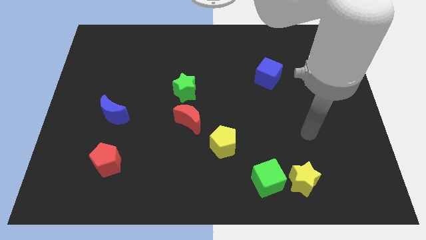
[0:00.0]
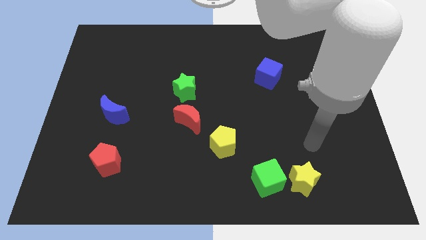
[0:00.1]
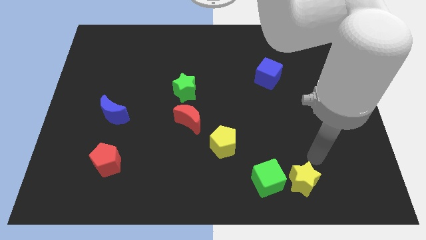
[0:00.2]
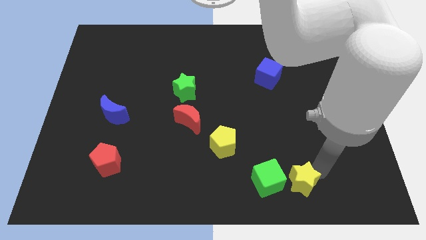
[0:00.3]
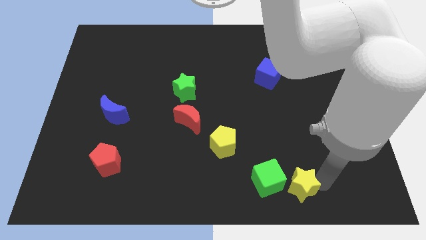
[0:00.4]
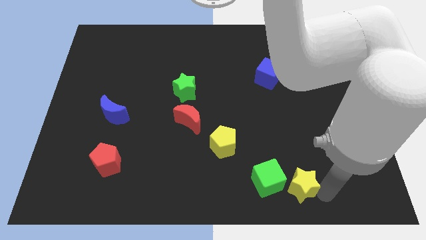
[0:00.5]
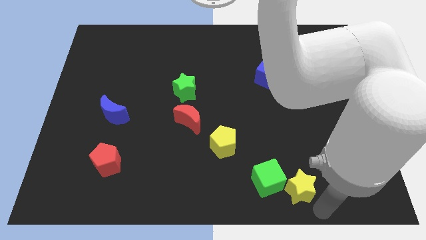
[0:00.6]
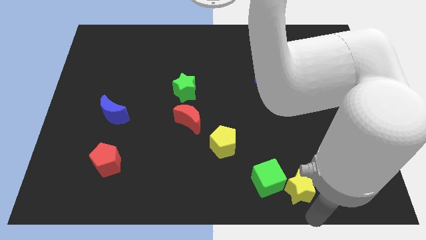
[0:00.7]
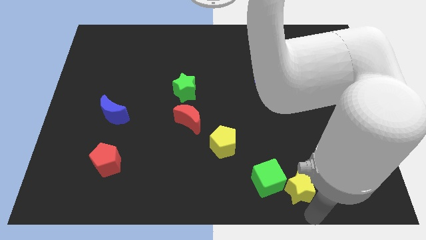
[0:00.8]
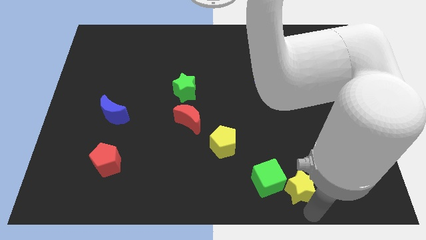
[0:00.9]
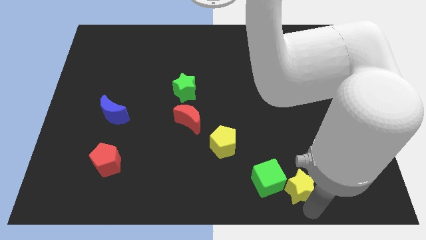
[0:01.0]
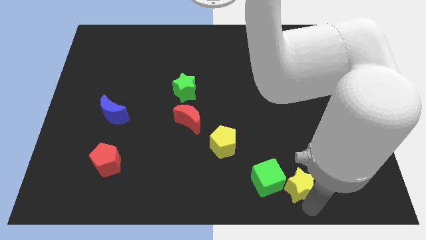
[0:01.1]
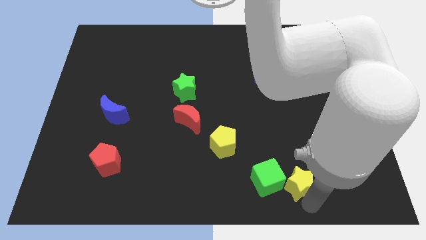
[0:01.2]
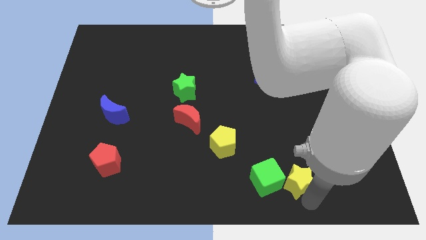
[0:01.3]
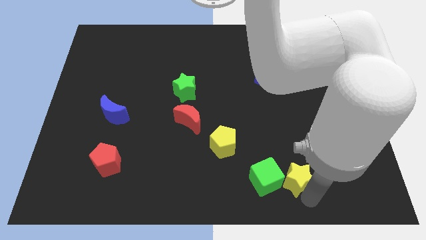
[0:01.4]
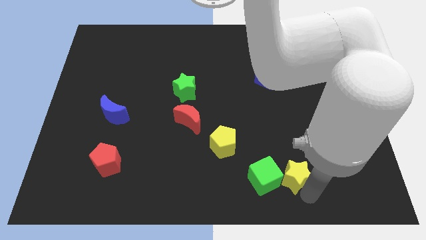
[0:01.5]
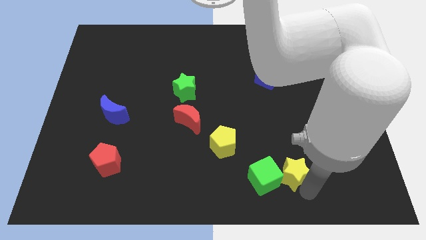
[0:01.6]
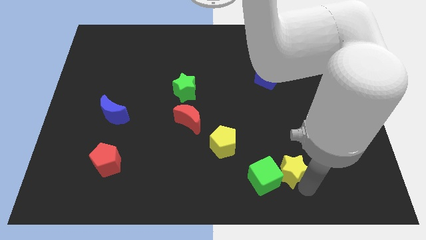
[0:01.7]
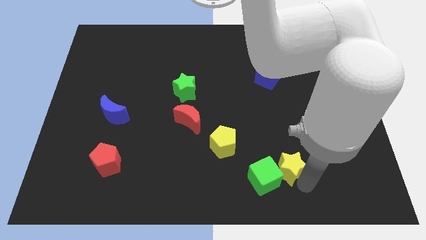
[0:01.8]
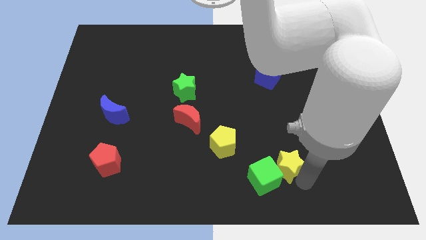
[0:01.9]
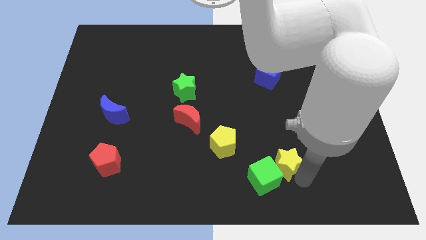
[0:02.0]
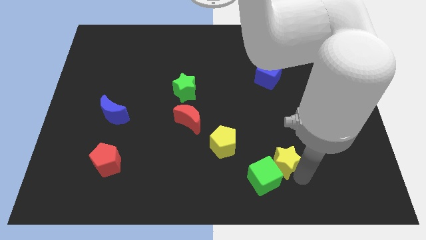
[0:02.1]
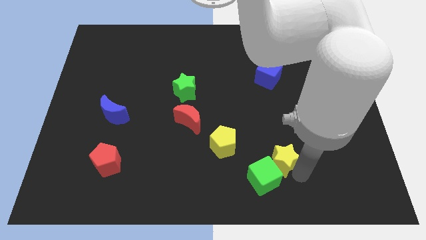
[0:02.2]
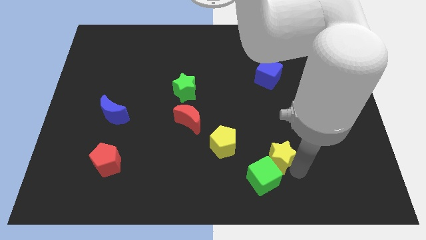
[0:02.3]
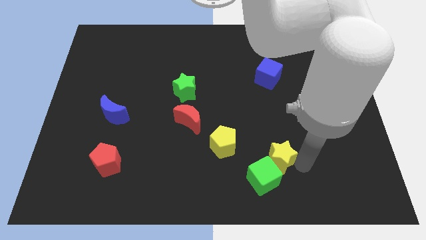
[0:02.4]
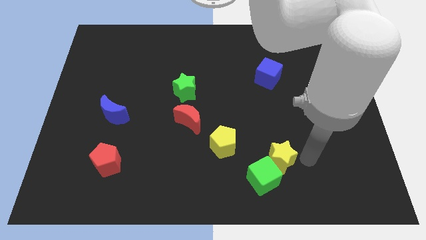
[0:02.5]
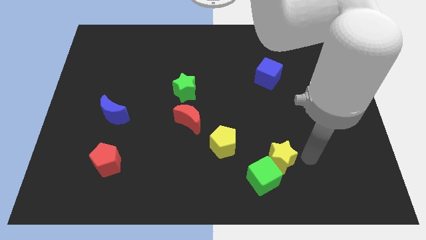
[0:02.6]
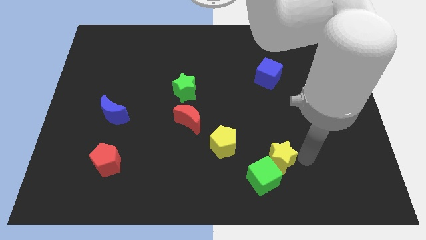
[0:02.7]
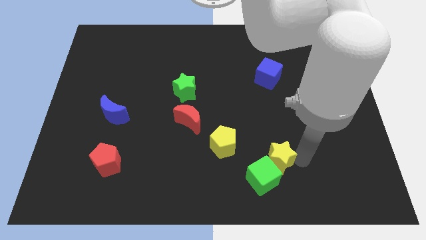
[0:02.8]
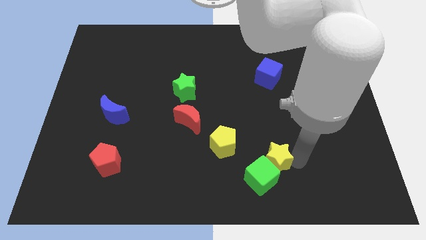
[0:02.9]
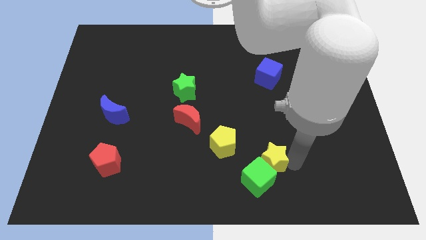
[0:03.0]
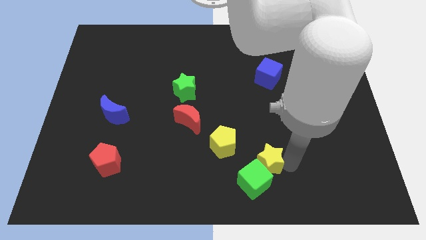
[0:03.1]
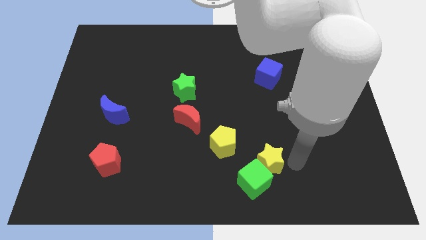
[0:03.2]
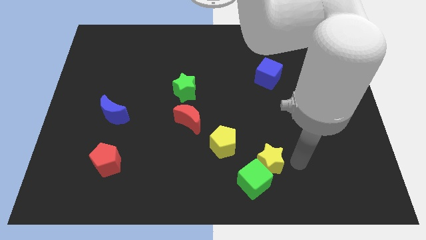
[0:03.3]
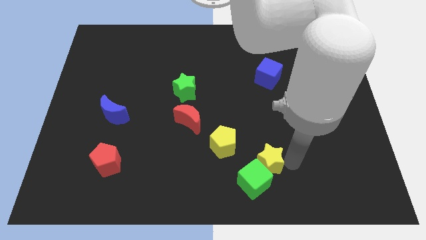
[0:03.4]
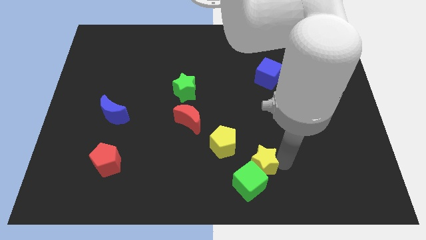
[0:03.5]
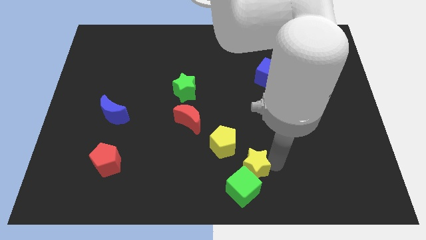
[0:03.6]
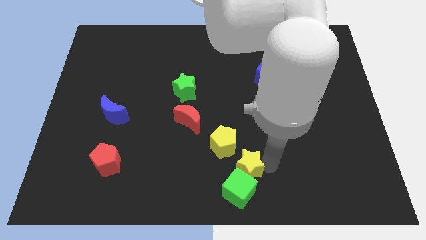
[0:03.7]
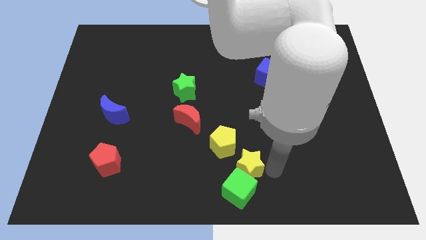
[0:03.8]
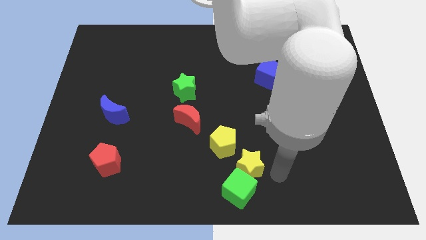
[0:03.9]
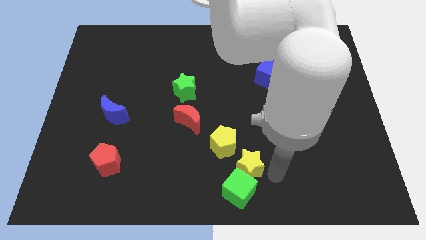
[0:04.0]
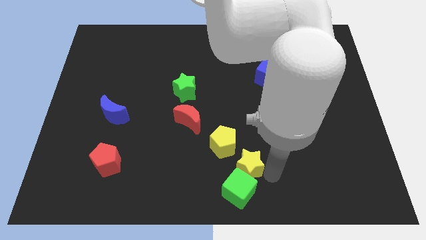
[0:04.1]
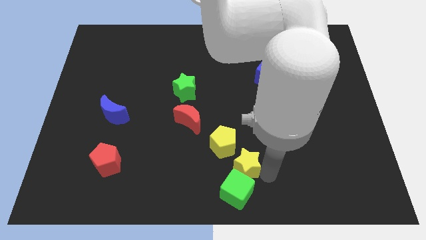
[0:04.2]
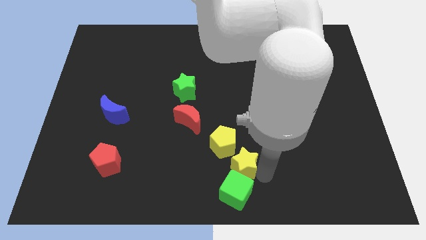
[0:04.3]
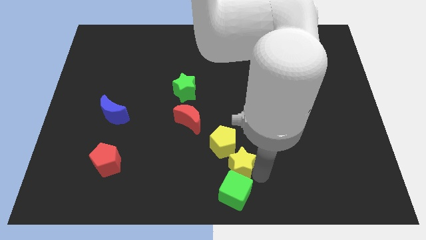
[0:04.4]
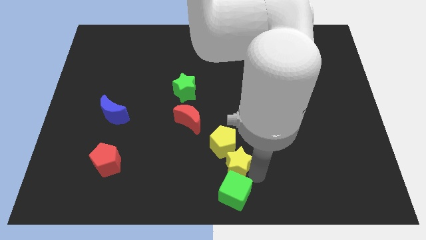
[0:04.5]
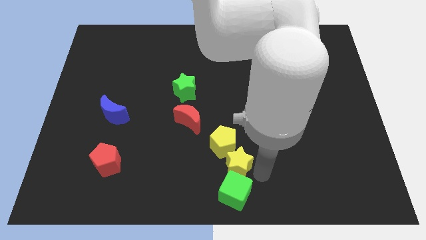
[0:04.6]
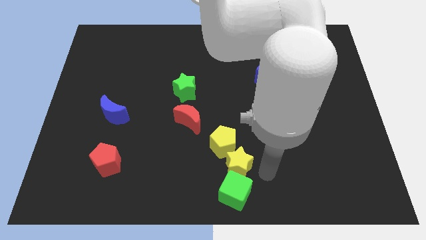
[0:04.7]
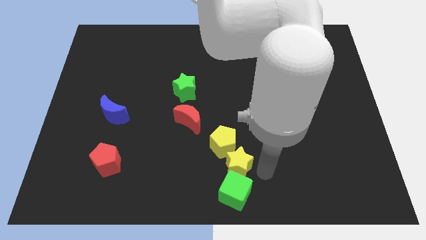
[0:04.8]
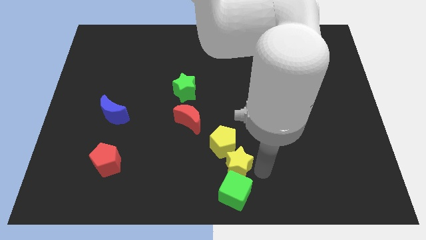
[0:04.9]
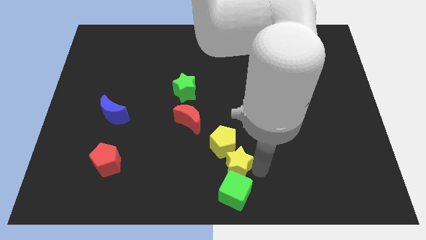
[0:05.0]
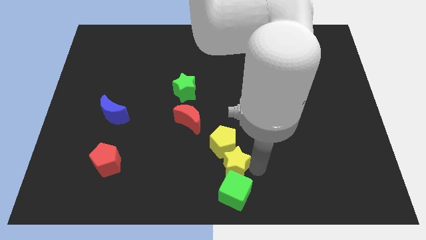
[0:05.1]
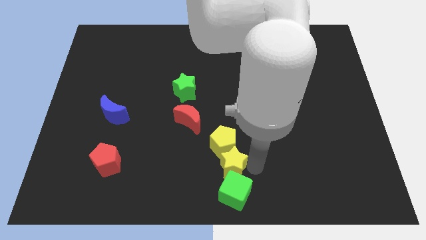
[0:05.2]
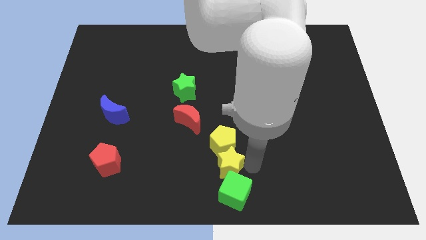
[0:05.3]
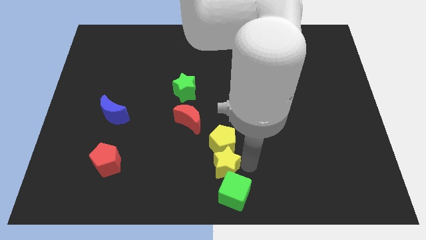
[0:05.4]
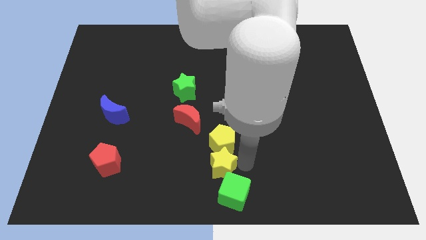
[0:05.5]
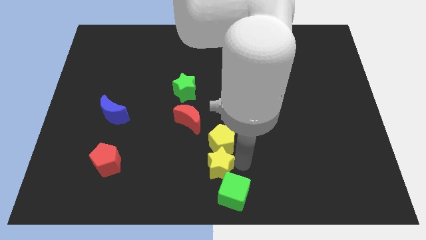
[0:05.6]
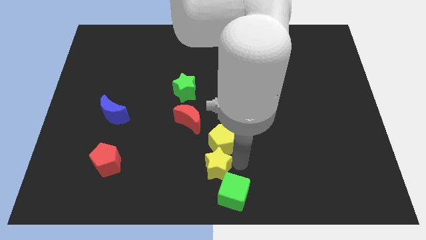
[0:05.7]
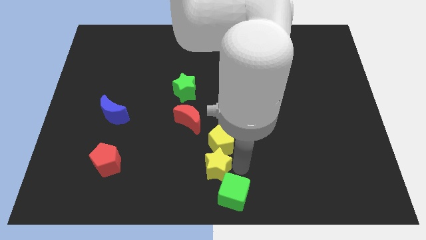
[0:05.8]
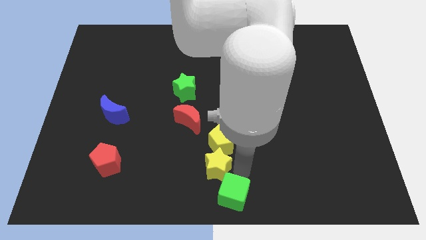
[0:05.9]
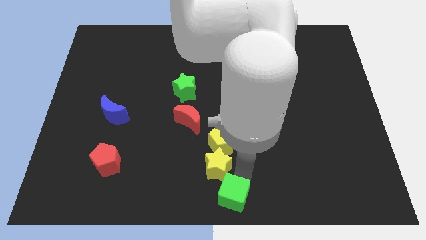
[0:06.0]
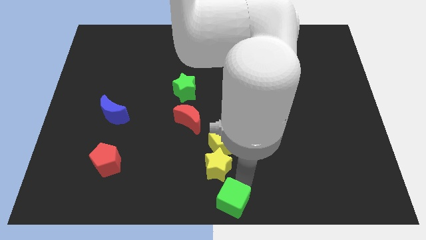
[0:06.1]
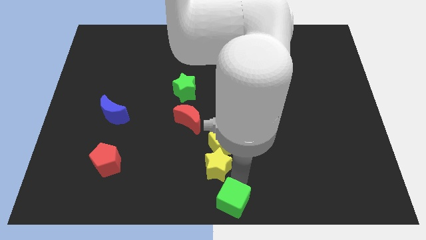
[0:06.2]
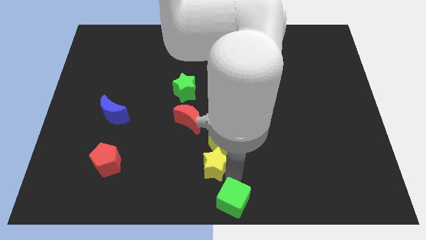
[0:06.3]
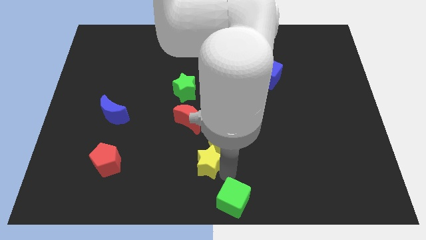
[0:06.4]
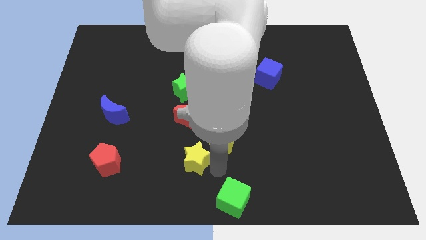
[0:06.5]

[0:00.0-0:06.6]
push the yellow star left of the yellow pentagon
